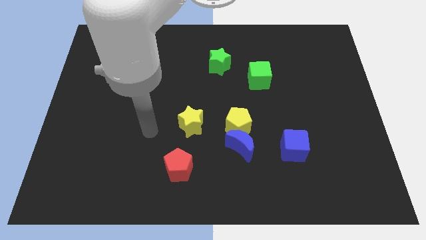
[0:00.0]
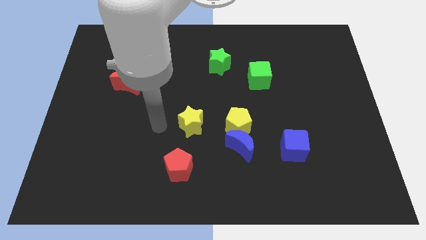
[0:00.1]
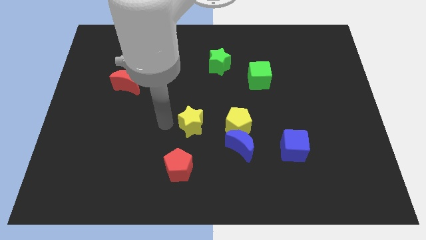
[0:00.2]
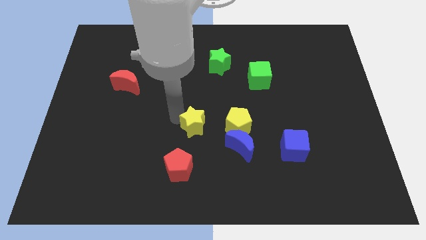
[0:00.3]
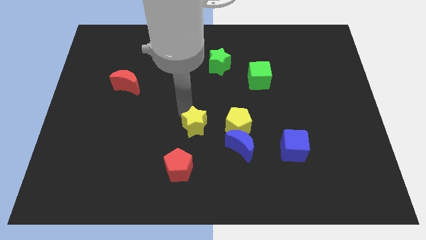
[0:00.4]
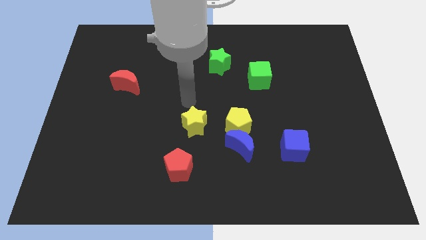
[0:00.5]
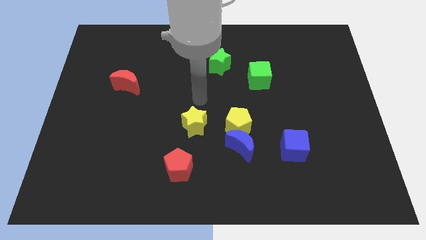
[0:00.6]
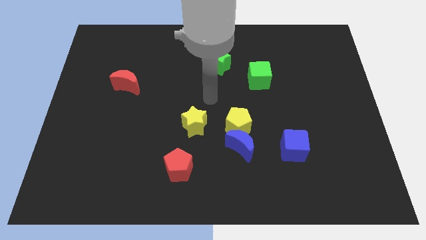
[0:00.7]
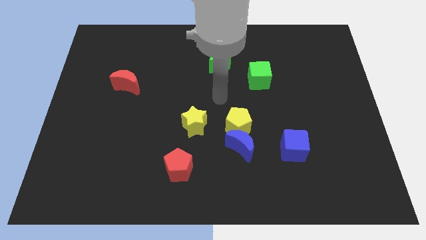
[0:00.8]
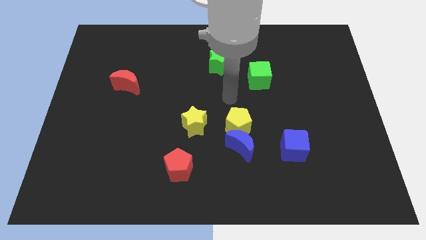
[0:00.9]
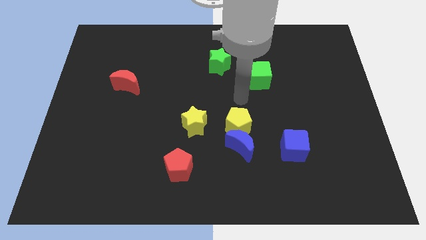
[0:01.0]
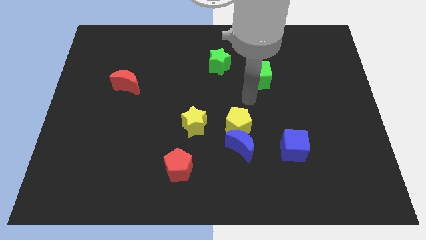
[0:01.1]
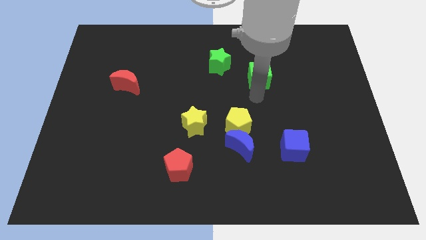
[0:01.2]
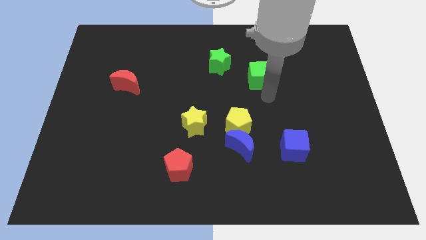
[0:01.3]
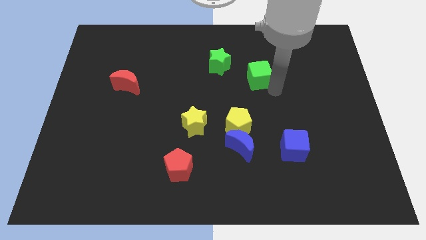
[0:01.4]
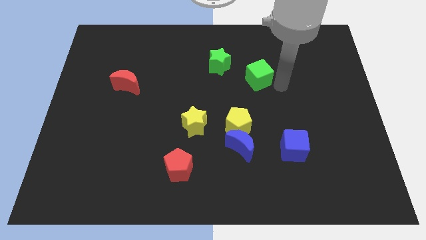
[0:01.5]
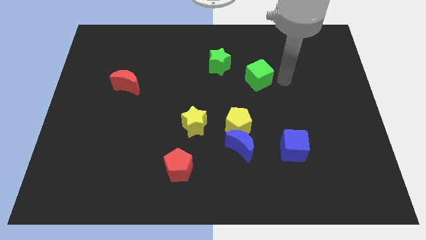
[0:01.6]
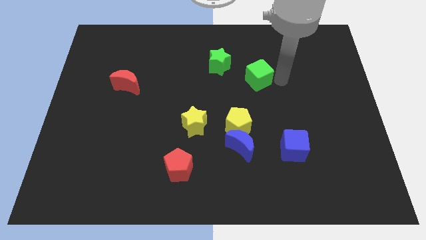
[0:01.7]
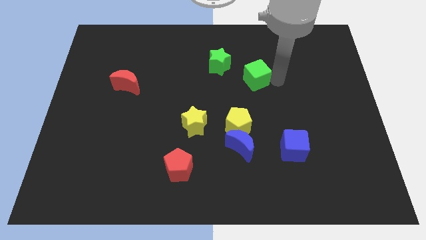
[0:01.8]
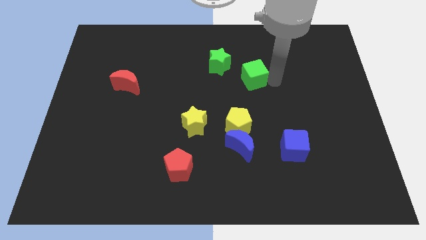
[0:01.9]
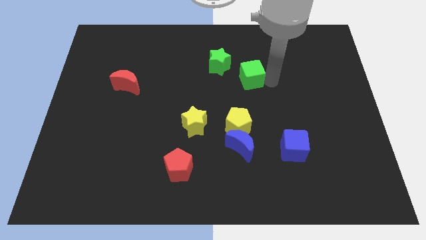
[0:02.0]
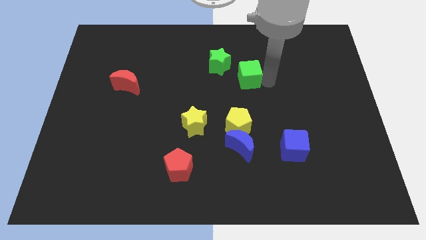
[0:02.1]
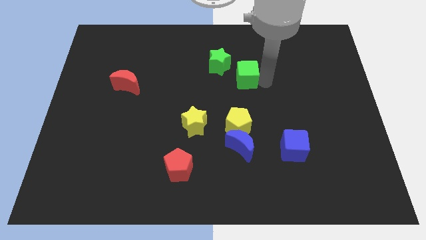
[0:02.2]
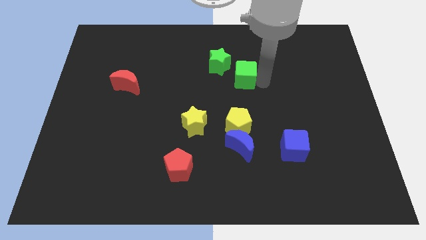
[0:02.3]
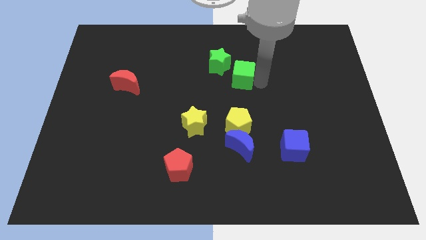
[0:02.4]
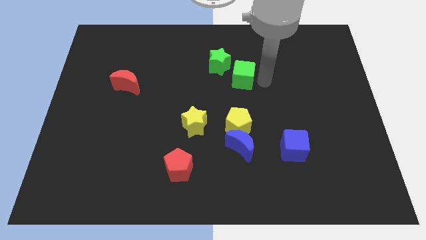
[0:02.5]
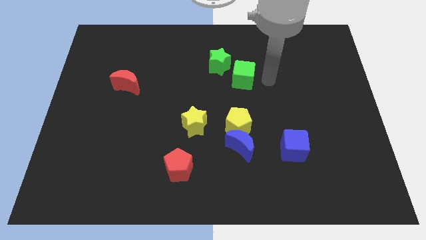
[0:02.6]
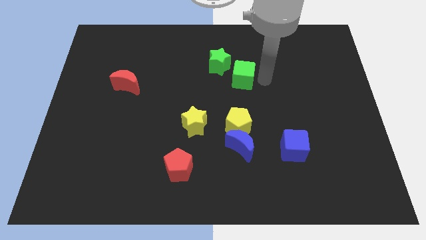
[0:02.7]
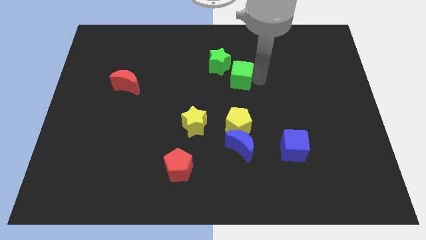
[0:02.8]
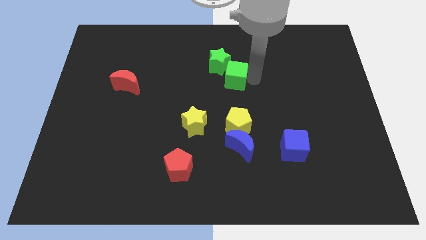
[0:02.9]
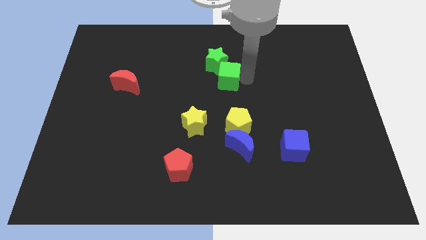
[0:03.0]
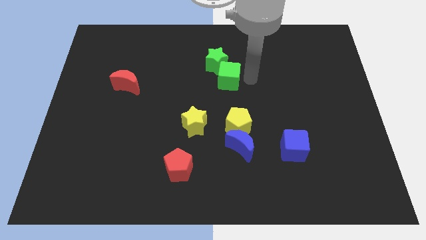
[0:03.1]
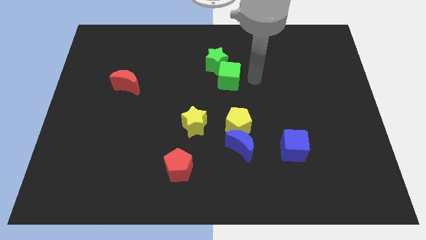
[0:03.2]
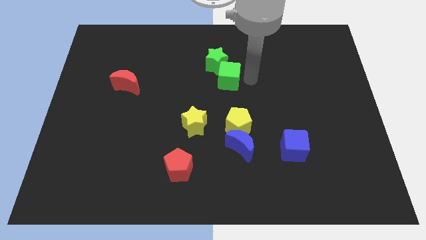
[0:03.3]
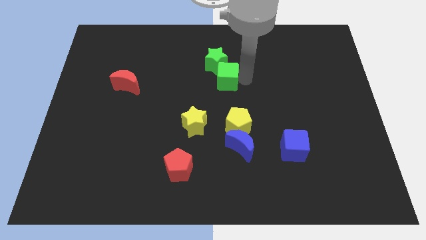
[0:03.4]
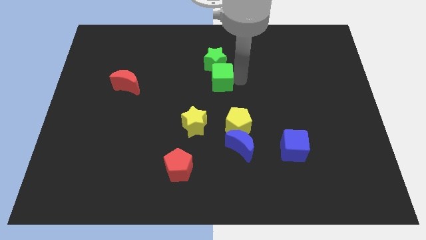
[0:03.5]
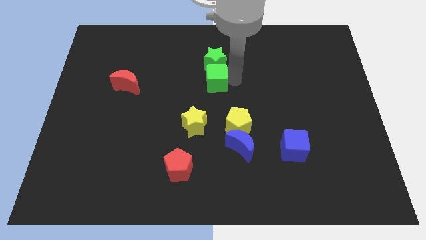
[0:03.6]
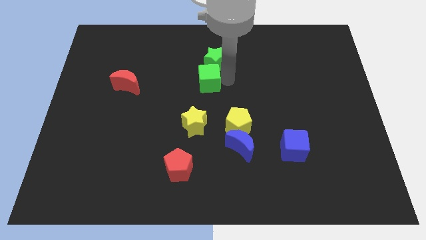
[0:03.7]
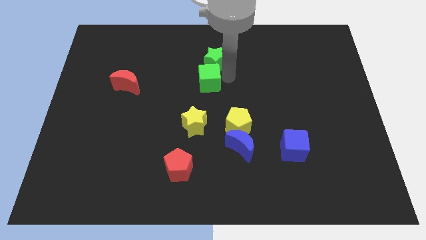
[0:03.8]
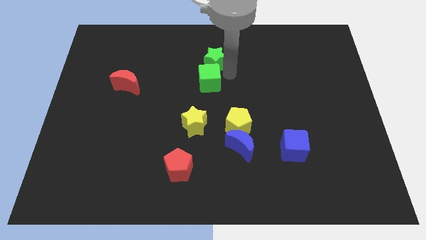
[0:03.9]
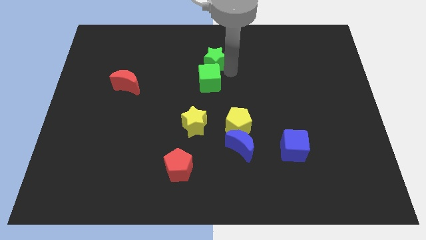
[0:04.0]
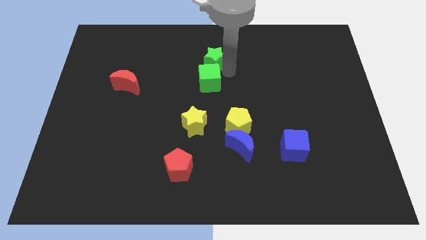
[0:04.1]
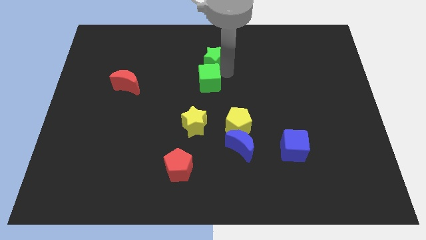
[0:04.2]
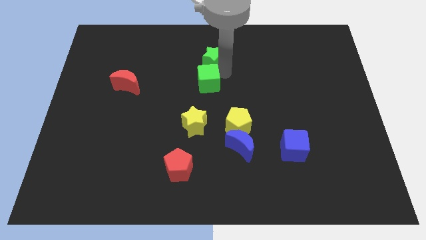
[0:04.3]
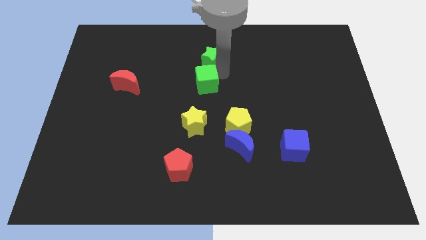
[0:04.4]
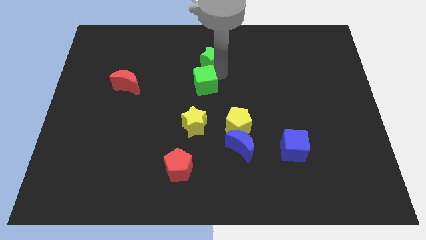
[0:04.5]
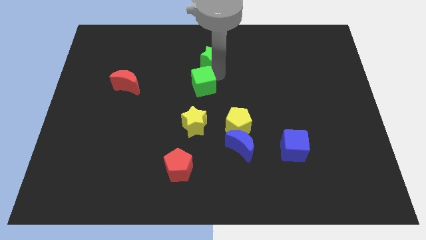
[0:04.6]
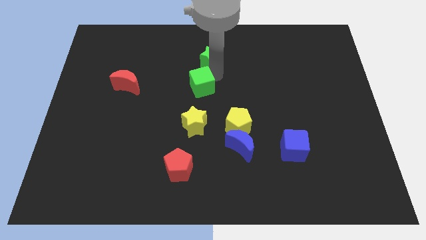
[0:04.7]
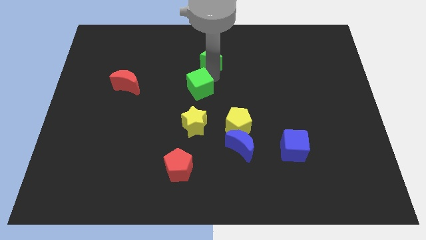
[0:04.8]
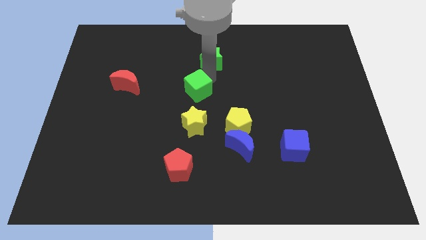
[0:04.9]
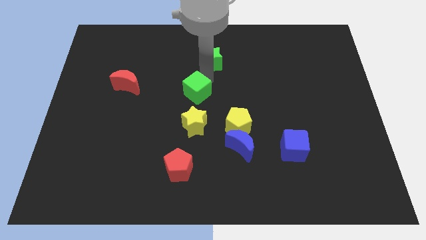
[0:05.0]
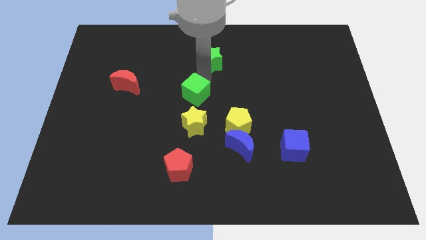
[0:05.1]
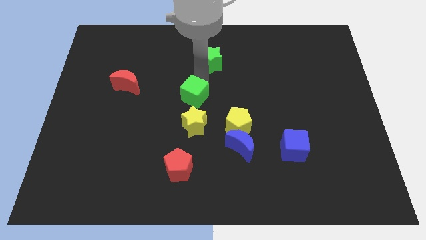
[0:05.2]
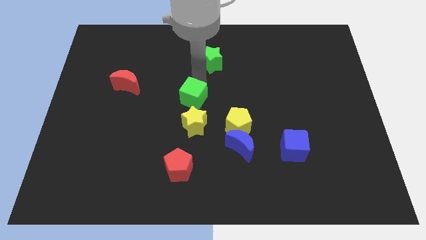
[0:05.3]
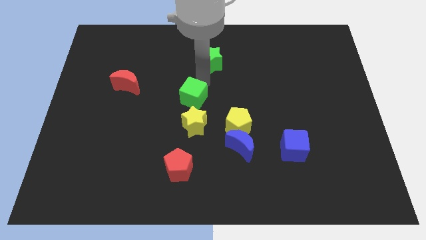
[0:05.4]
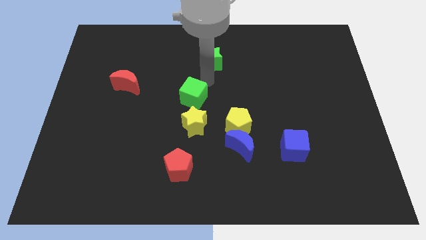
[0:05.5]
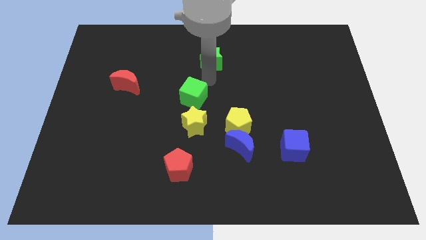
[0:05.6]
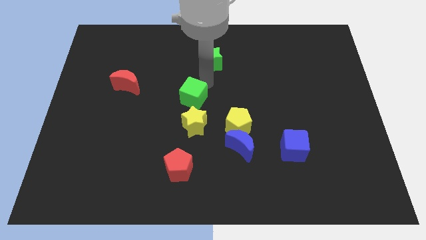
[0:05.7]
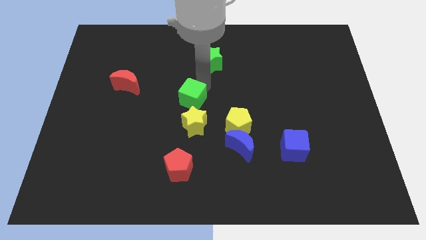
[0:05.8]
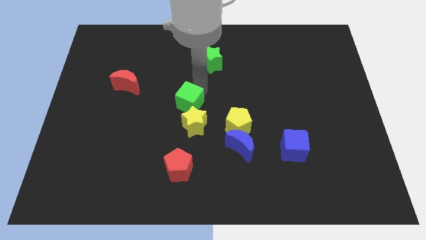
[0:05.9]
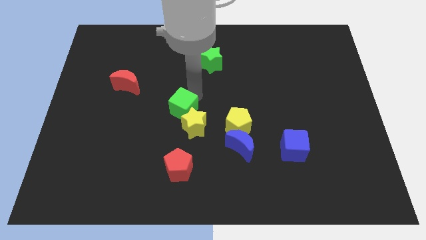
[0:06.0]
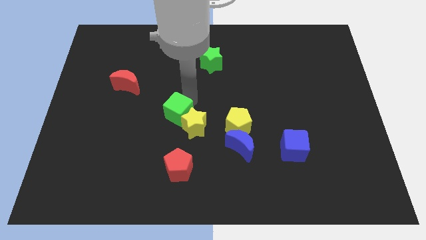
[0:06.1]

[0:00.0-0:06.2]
push the green cube to the left of the yellow pentagon

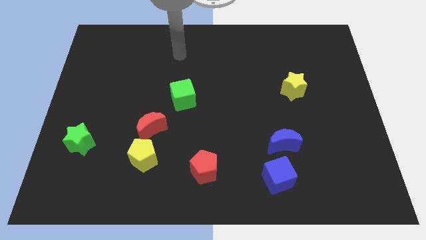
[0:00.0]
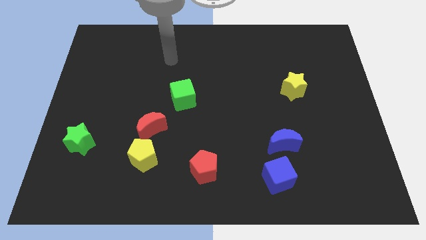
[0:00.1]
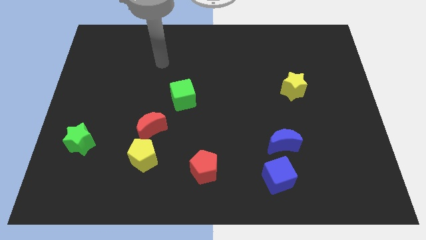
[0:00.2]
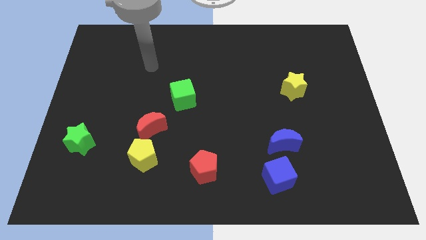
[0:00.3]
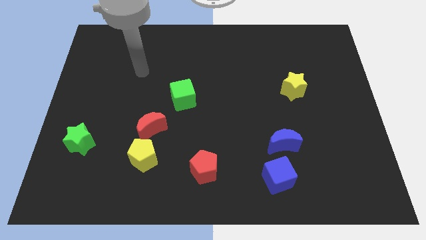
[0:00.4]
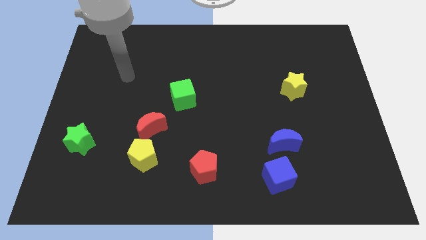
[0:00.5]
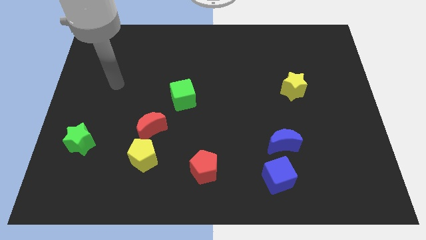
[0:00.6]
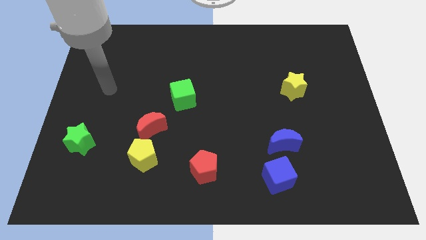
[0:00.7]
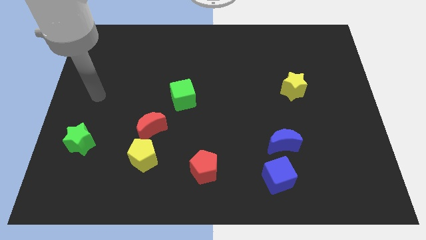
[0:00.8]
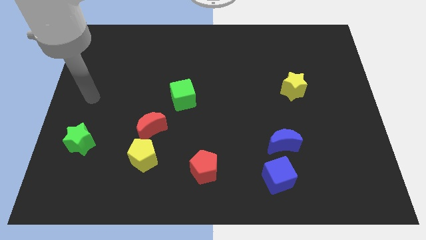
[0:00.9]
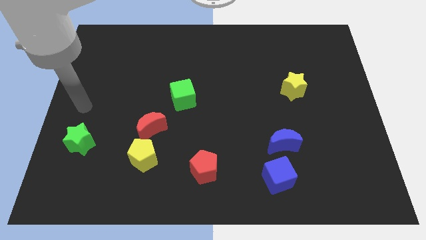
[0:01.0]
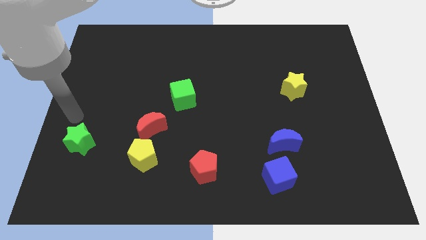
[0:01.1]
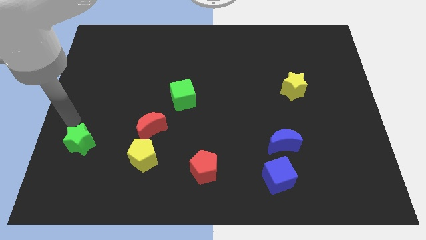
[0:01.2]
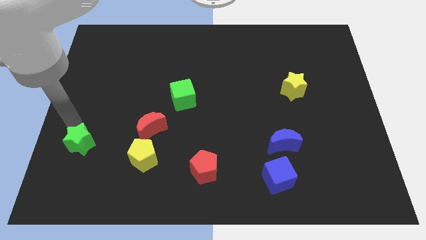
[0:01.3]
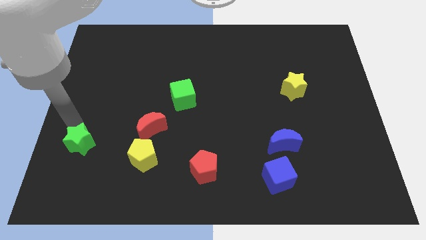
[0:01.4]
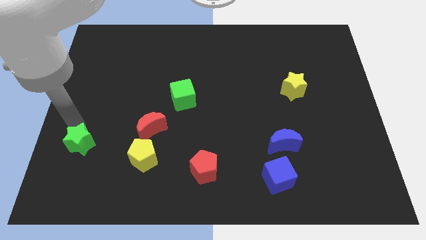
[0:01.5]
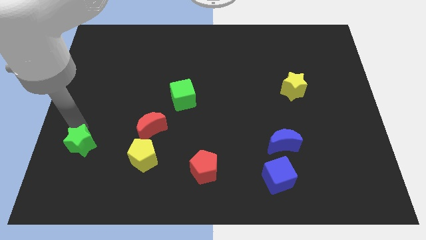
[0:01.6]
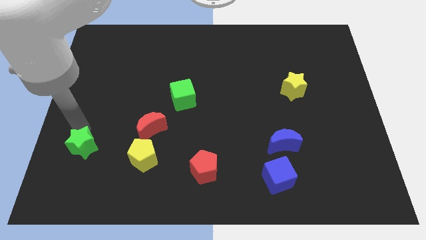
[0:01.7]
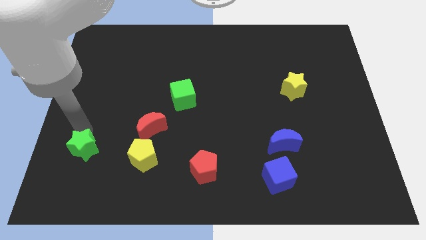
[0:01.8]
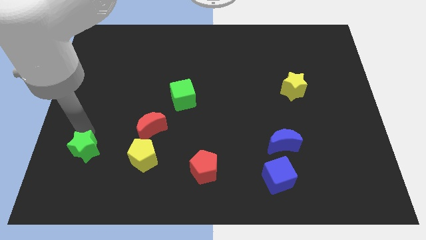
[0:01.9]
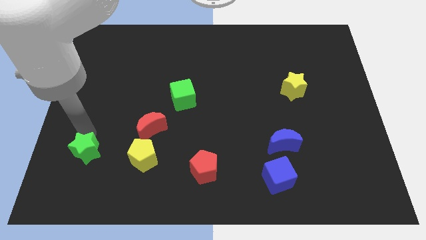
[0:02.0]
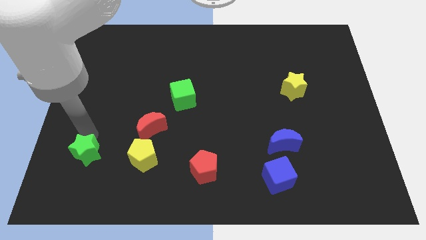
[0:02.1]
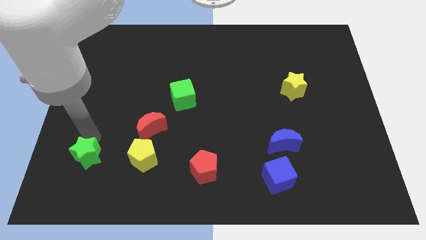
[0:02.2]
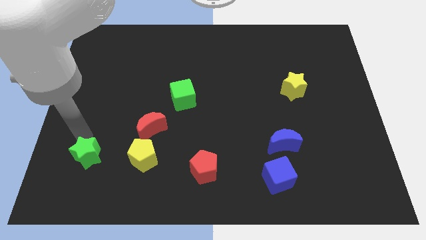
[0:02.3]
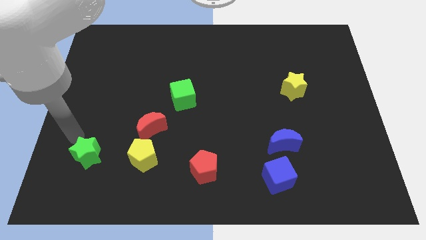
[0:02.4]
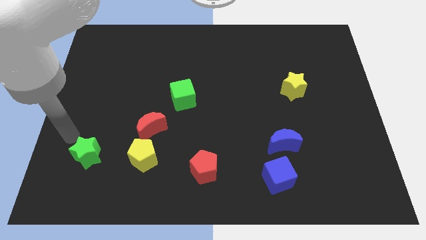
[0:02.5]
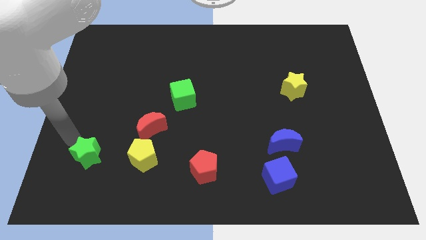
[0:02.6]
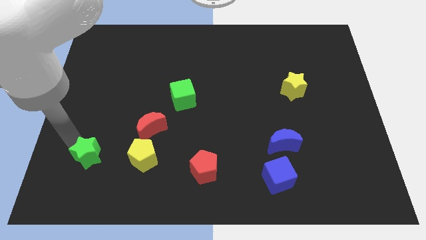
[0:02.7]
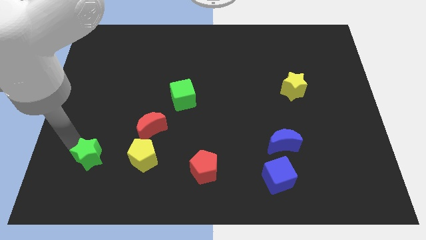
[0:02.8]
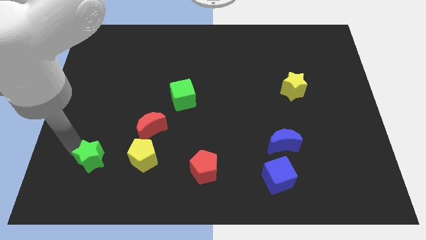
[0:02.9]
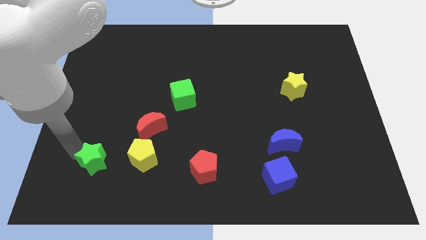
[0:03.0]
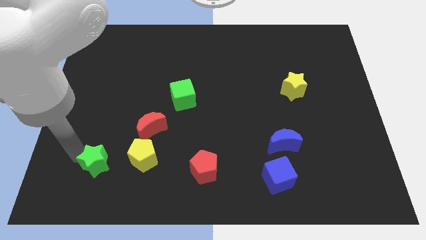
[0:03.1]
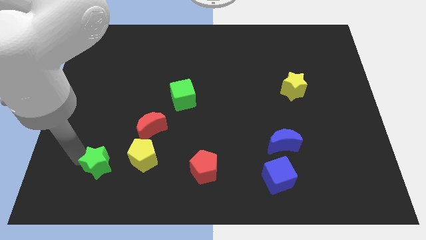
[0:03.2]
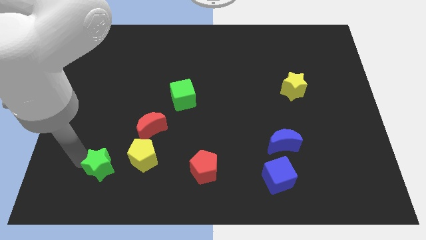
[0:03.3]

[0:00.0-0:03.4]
move the green star diagonally down and to the left of the yellow pentagon
